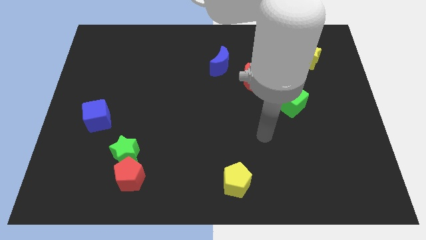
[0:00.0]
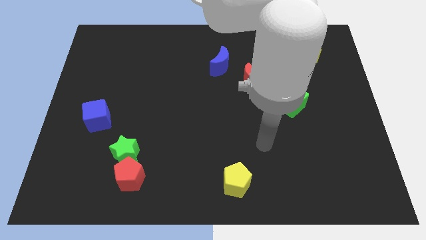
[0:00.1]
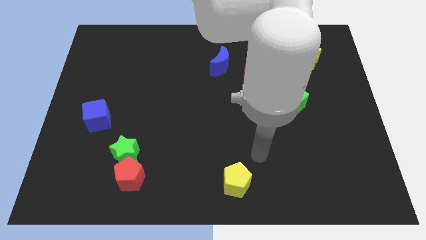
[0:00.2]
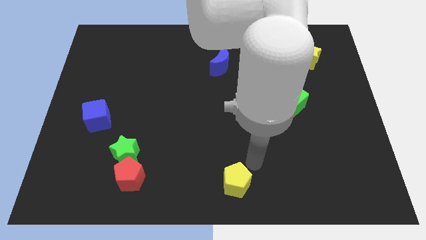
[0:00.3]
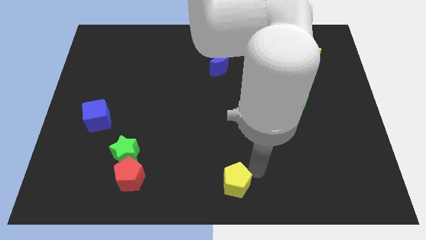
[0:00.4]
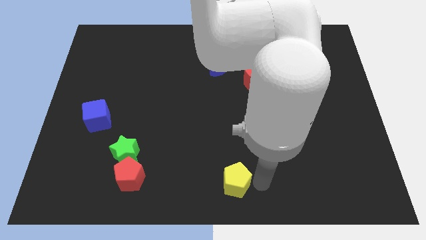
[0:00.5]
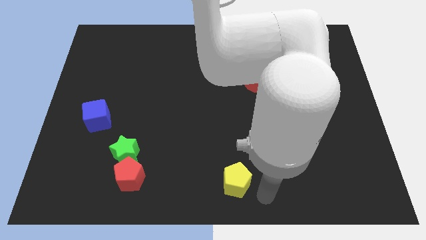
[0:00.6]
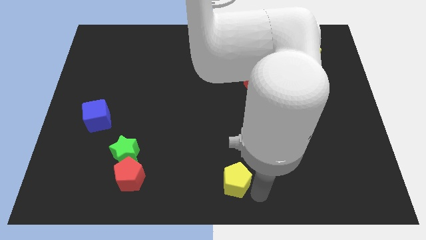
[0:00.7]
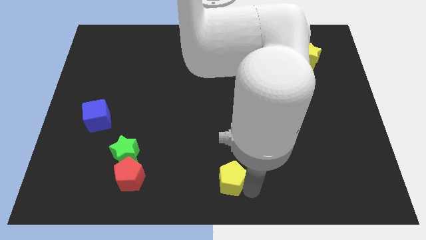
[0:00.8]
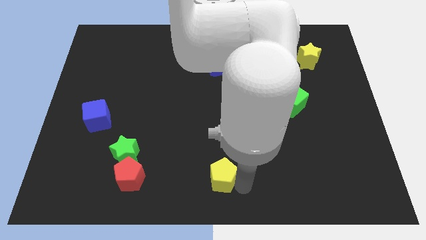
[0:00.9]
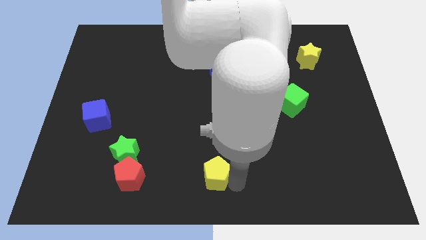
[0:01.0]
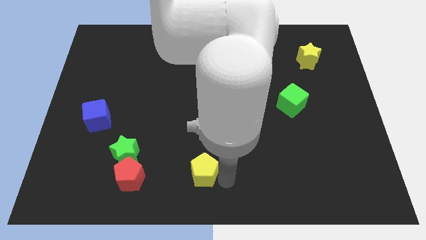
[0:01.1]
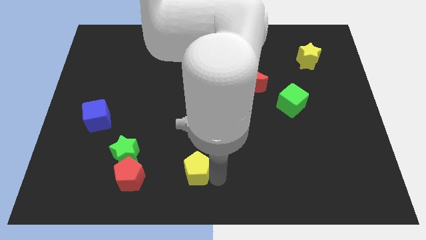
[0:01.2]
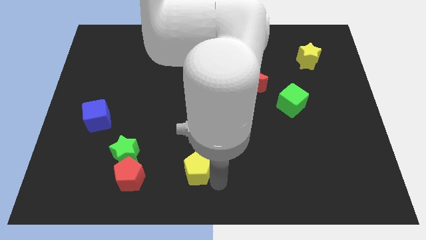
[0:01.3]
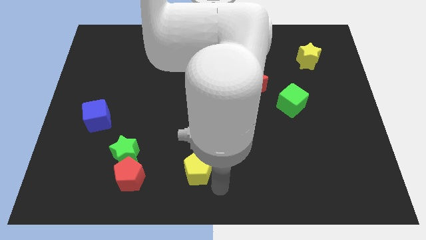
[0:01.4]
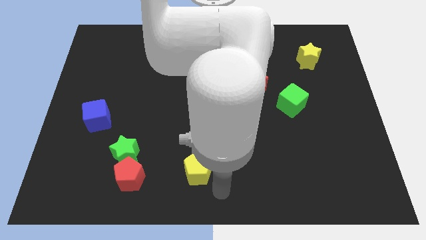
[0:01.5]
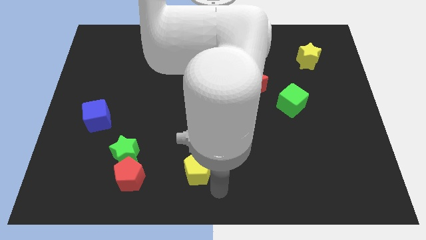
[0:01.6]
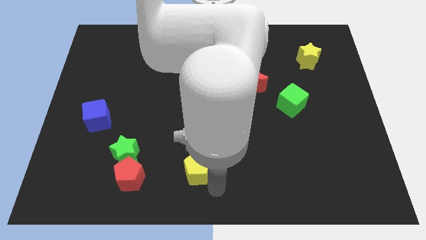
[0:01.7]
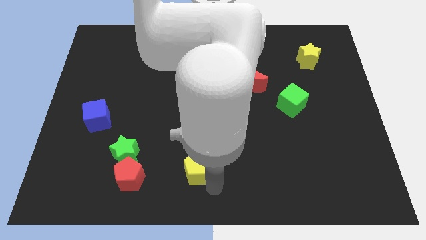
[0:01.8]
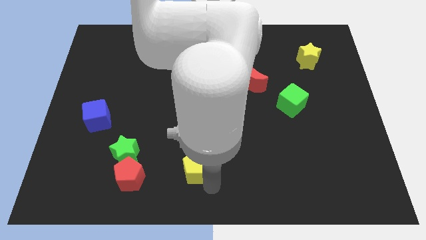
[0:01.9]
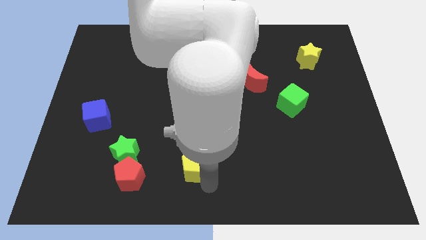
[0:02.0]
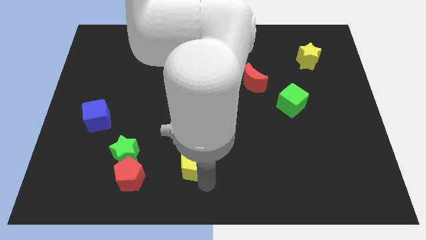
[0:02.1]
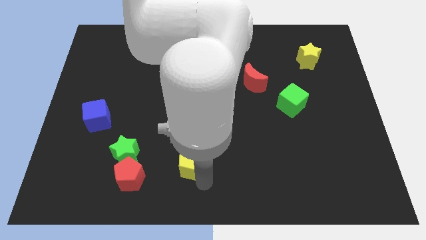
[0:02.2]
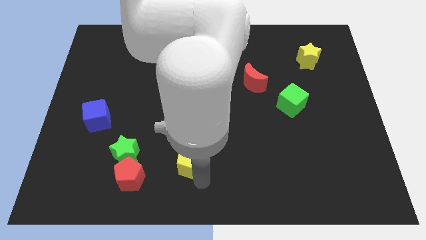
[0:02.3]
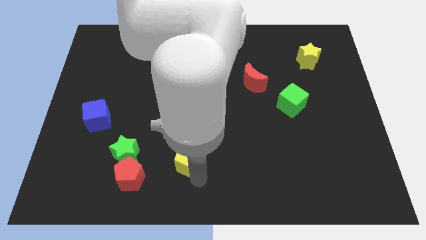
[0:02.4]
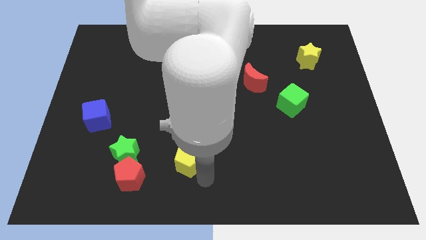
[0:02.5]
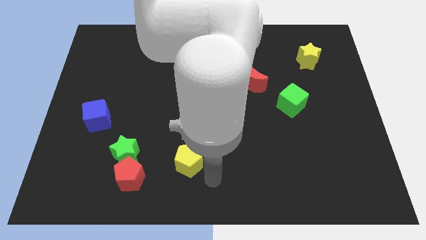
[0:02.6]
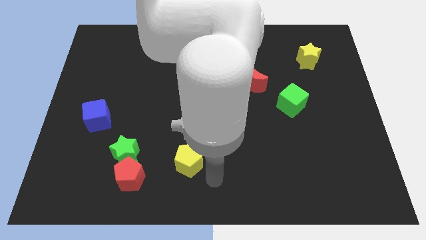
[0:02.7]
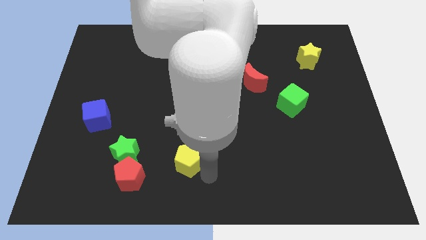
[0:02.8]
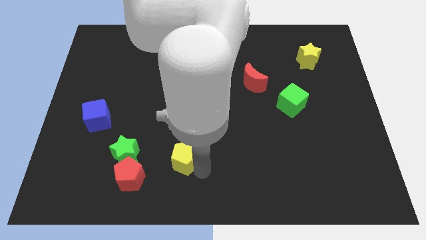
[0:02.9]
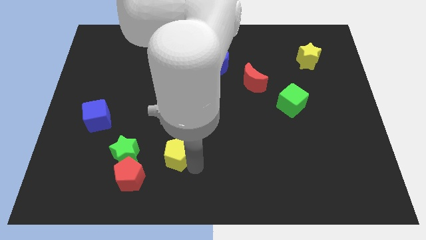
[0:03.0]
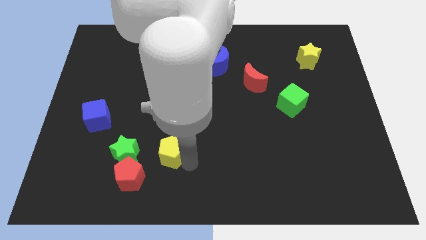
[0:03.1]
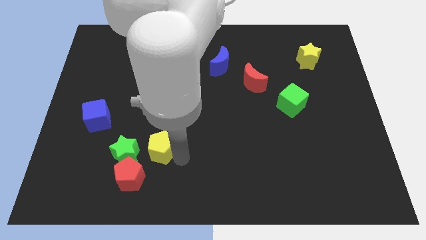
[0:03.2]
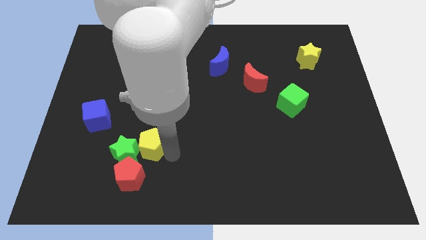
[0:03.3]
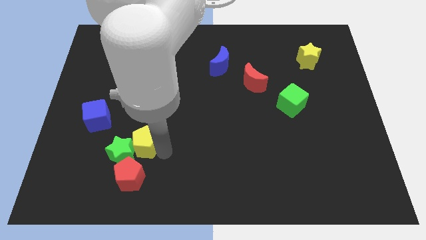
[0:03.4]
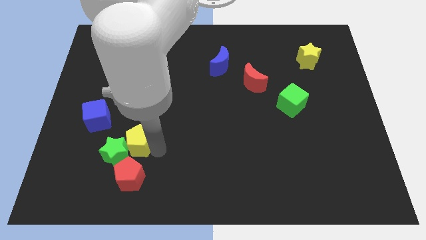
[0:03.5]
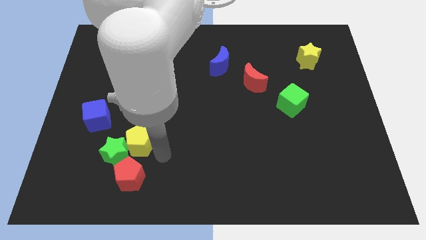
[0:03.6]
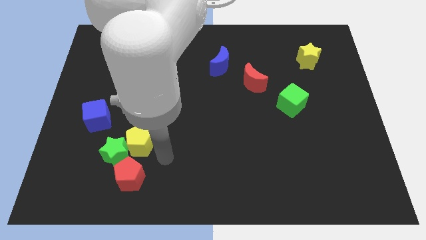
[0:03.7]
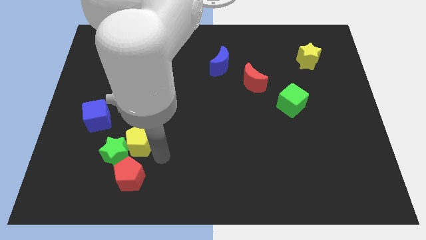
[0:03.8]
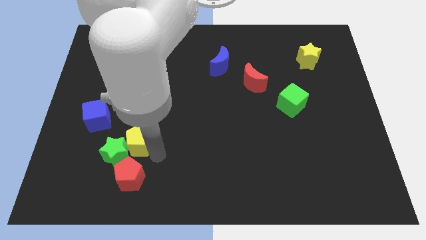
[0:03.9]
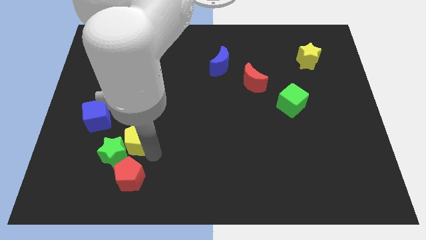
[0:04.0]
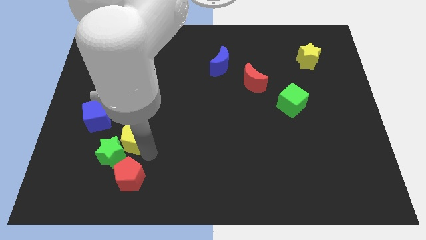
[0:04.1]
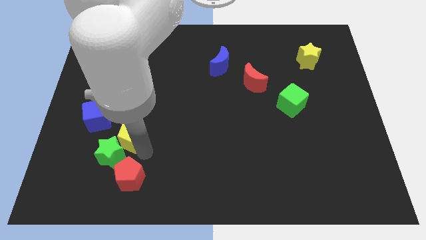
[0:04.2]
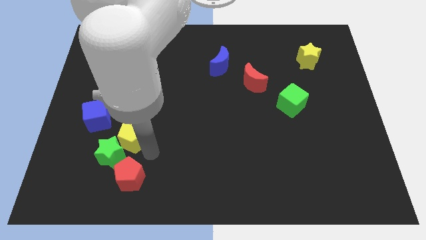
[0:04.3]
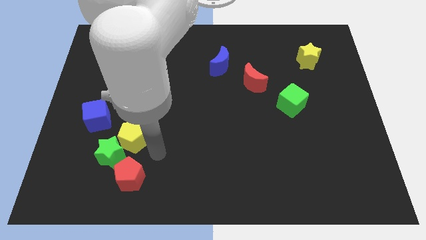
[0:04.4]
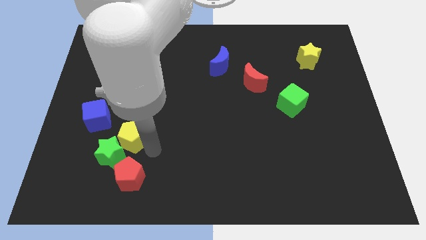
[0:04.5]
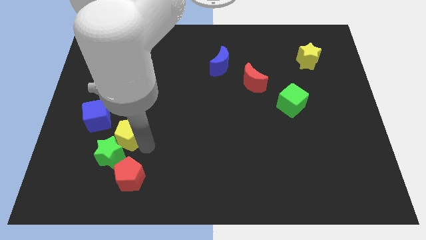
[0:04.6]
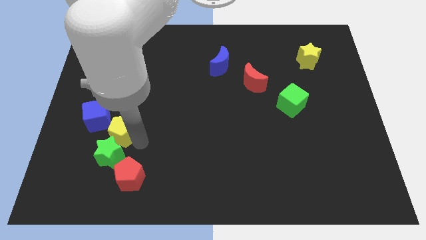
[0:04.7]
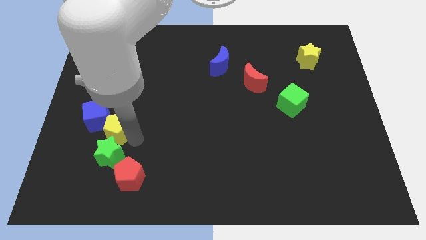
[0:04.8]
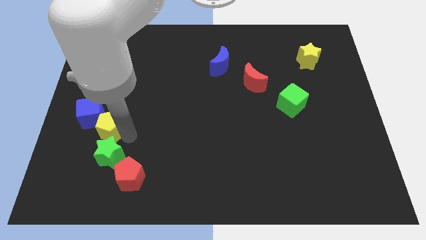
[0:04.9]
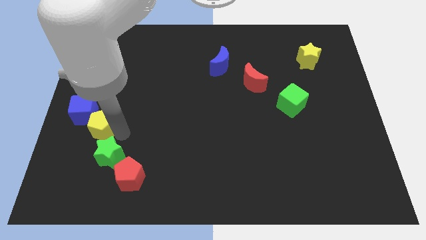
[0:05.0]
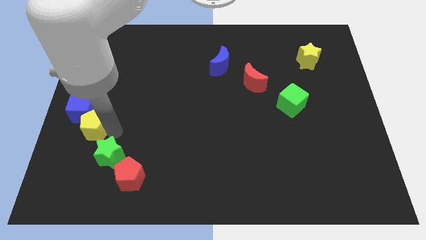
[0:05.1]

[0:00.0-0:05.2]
slide the yellow pentagon towards the blue cube

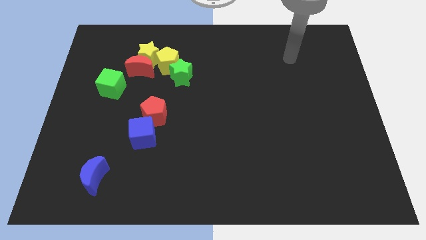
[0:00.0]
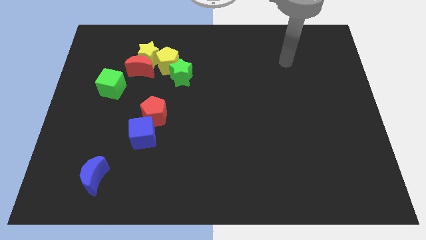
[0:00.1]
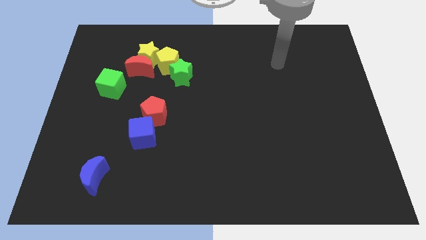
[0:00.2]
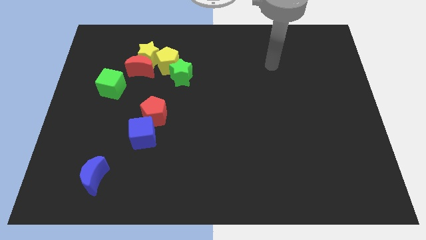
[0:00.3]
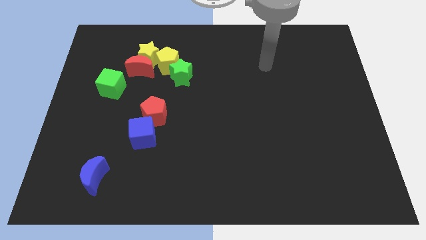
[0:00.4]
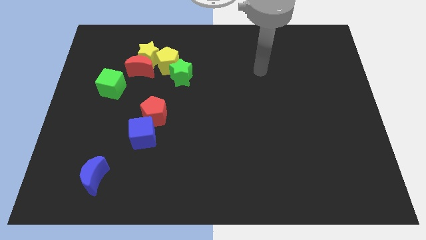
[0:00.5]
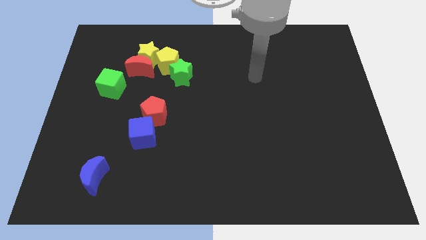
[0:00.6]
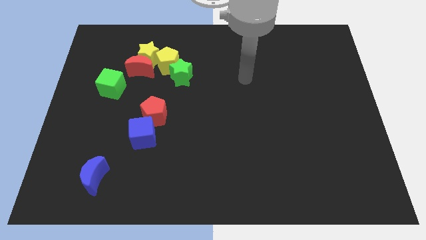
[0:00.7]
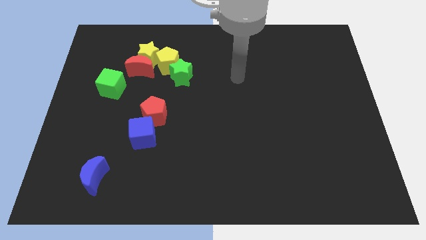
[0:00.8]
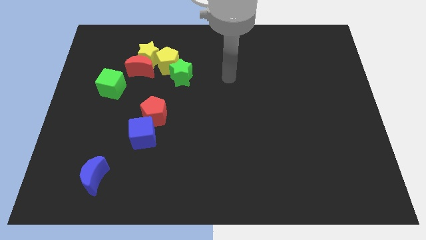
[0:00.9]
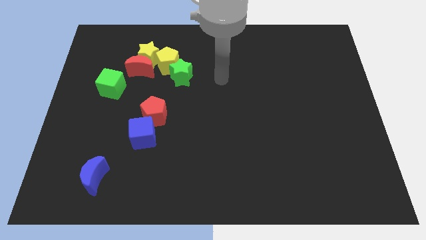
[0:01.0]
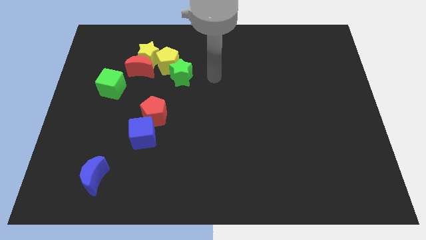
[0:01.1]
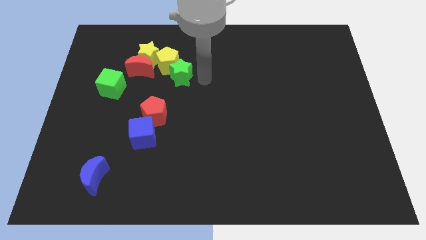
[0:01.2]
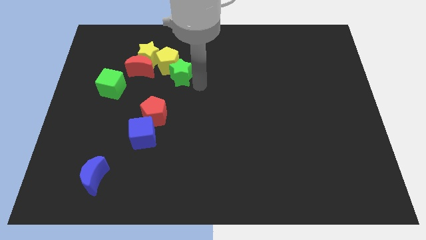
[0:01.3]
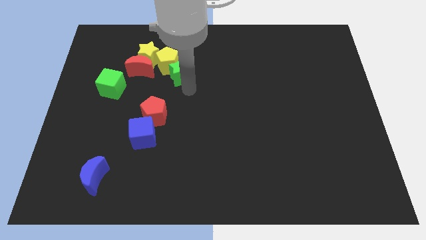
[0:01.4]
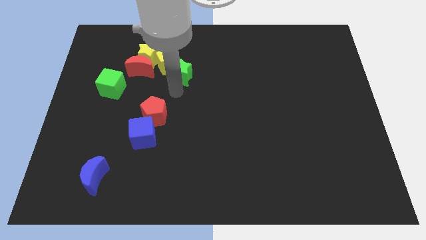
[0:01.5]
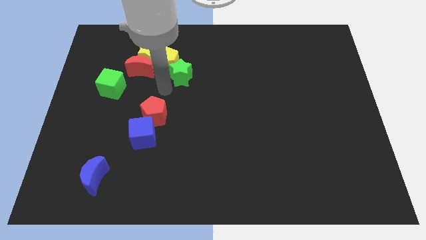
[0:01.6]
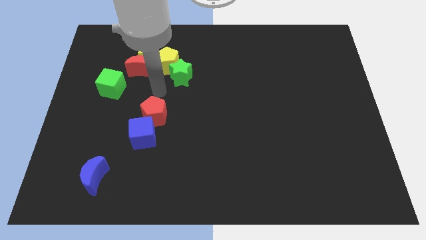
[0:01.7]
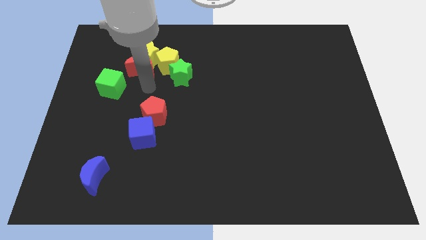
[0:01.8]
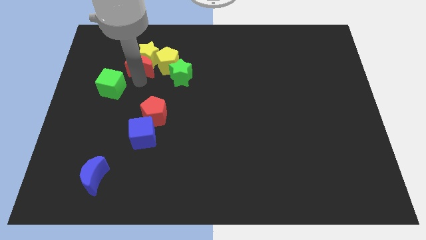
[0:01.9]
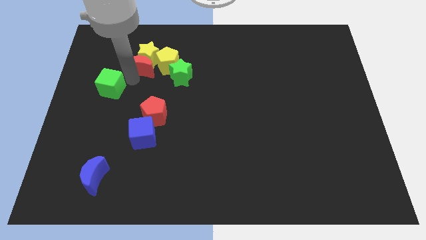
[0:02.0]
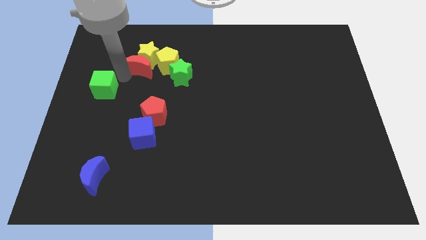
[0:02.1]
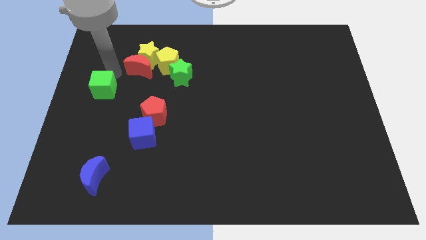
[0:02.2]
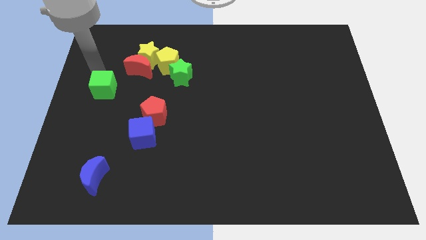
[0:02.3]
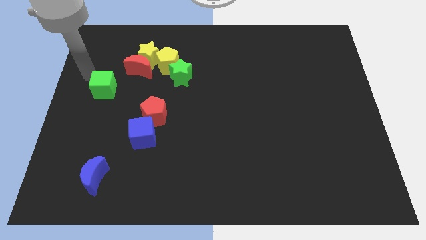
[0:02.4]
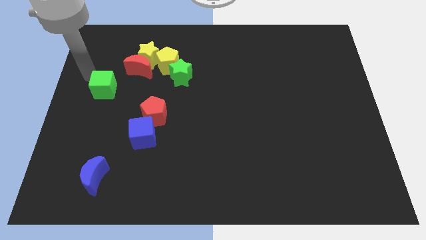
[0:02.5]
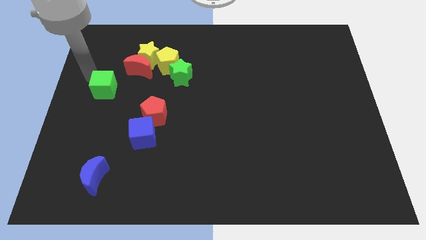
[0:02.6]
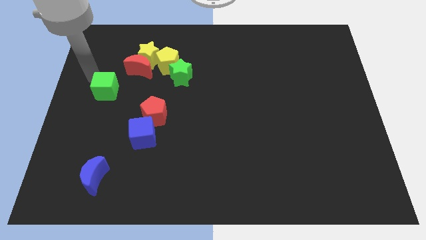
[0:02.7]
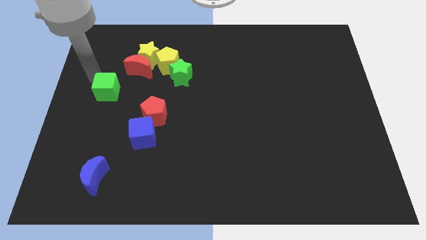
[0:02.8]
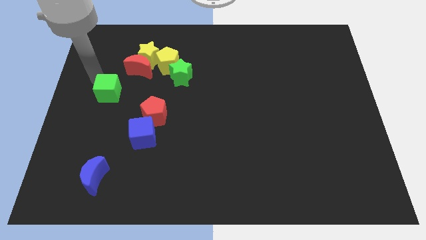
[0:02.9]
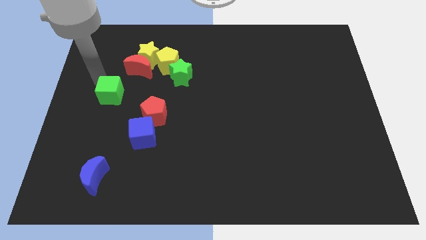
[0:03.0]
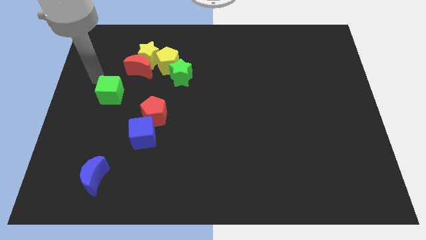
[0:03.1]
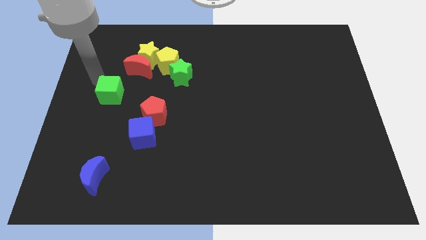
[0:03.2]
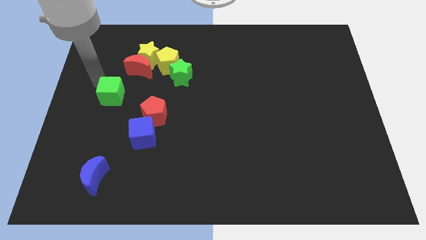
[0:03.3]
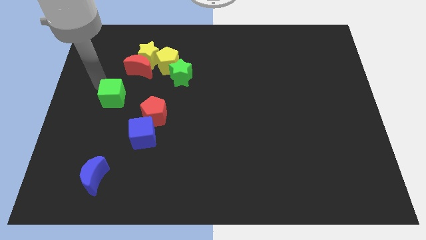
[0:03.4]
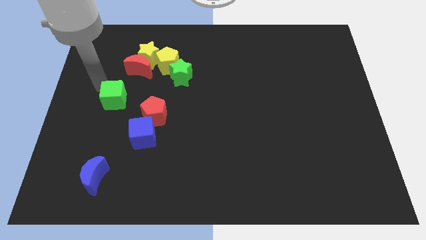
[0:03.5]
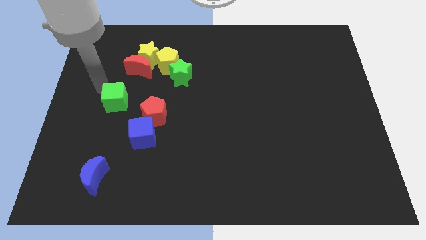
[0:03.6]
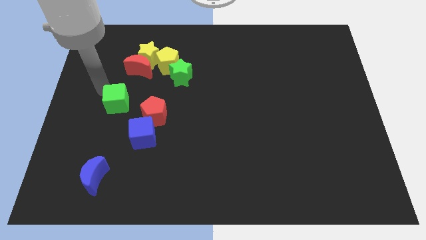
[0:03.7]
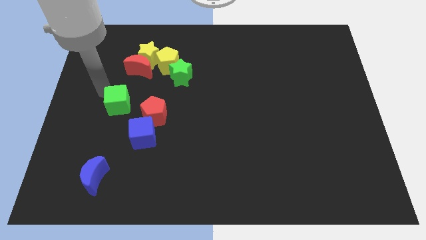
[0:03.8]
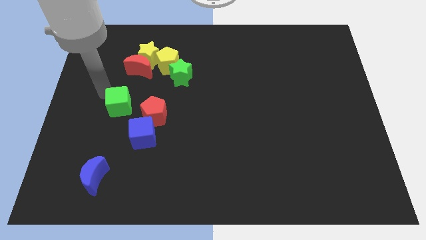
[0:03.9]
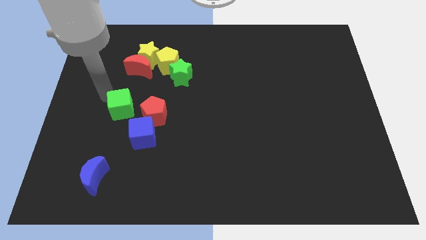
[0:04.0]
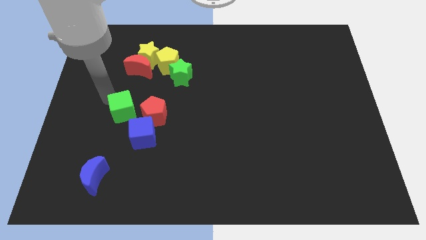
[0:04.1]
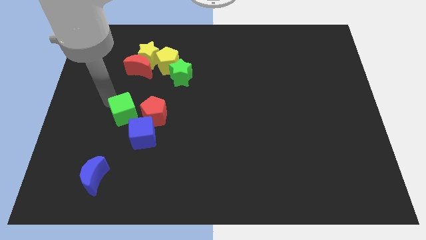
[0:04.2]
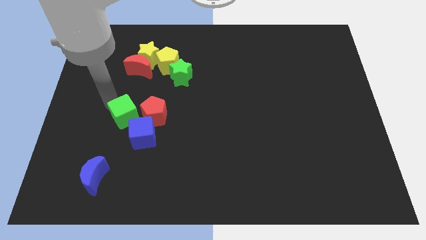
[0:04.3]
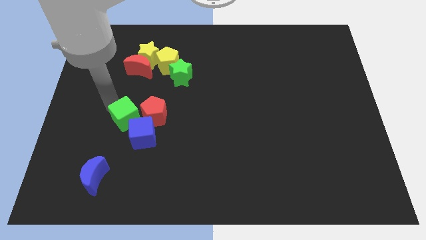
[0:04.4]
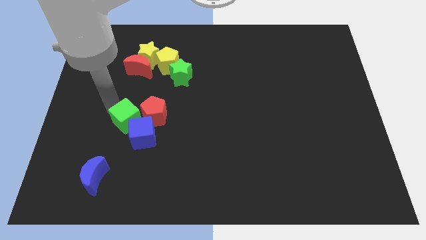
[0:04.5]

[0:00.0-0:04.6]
slide the green cube close to the blue cube
